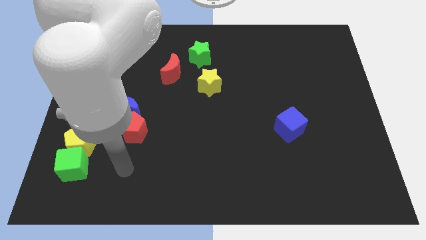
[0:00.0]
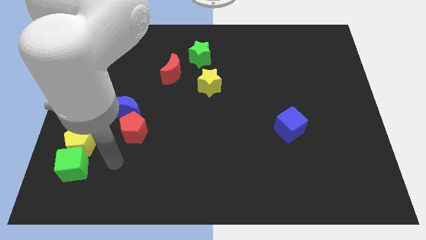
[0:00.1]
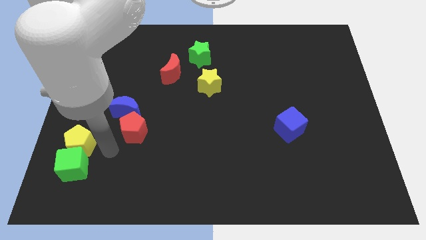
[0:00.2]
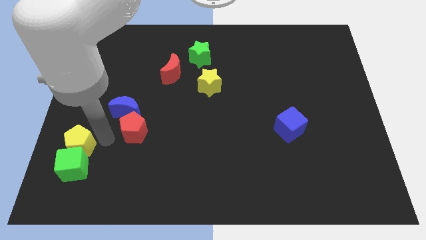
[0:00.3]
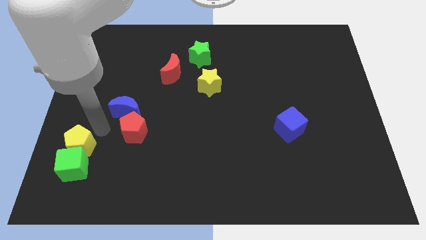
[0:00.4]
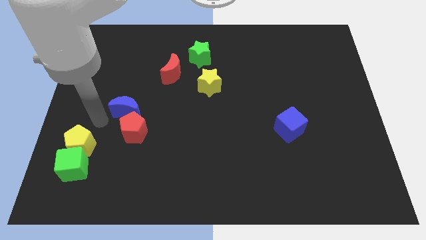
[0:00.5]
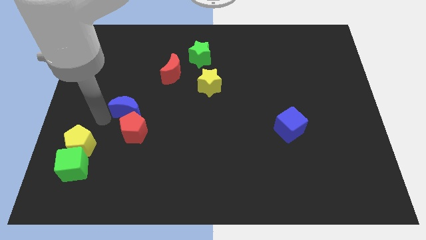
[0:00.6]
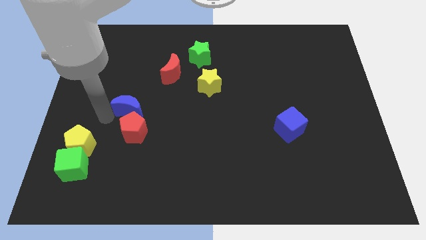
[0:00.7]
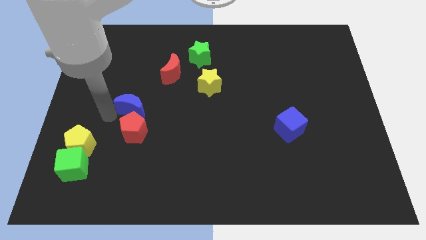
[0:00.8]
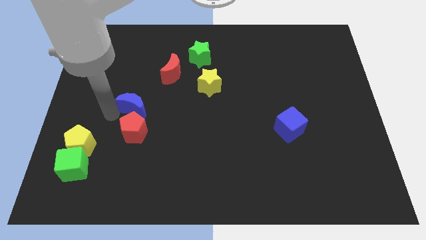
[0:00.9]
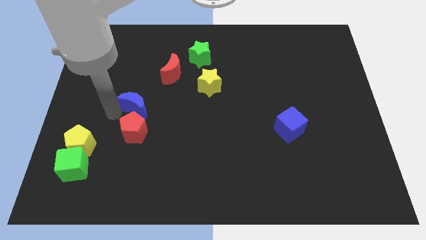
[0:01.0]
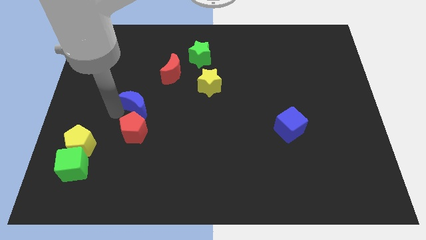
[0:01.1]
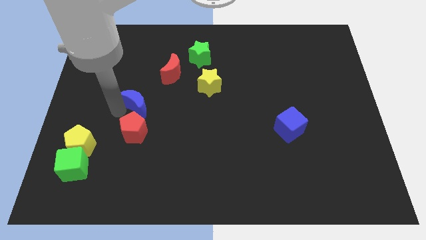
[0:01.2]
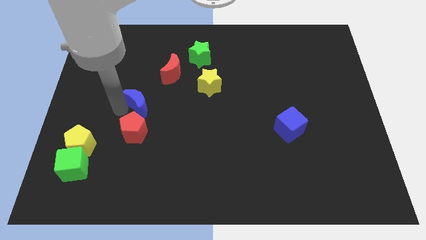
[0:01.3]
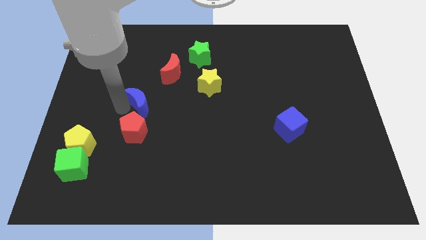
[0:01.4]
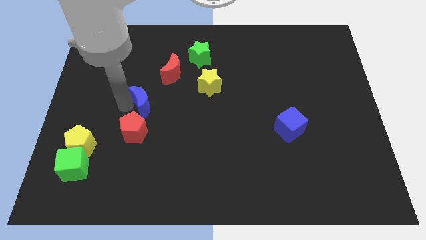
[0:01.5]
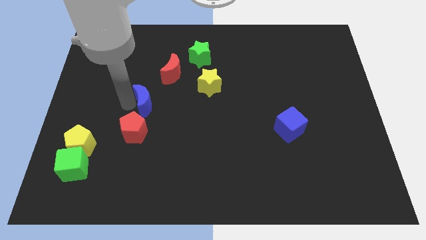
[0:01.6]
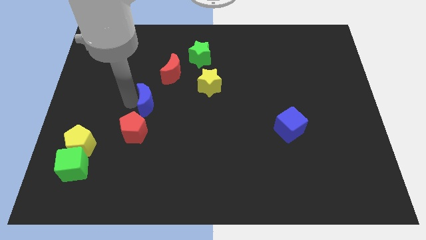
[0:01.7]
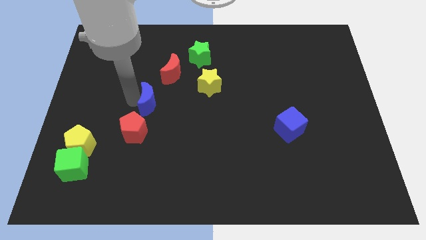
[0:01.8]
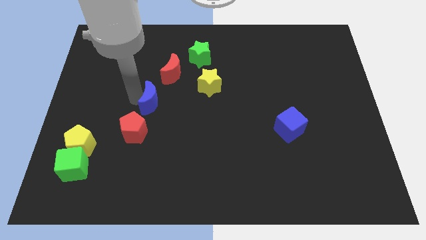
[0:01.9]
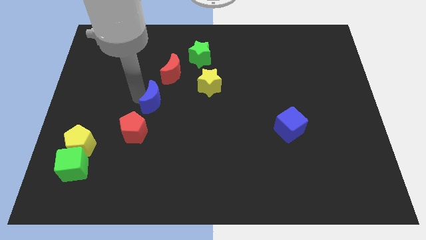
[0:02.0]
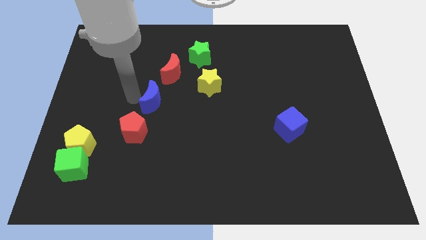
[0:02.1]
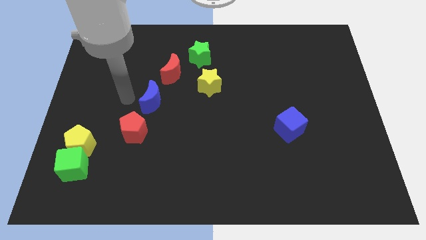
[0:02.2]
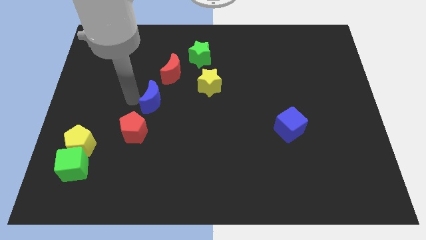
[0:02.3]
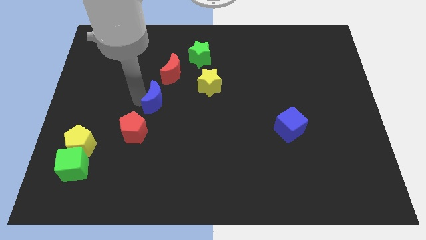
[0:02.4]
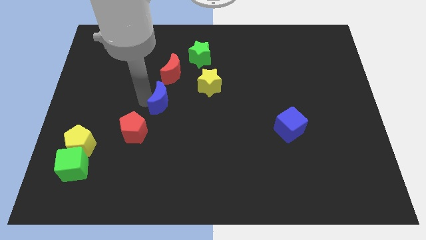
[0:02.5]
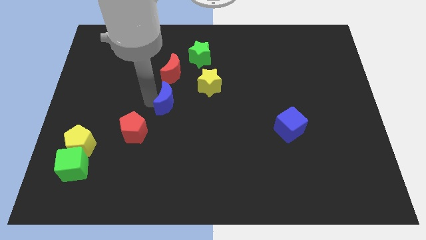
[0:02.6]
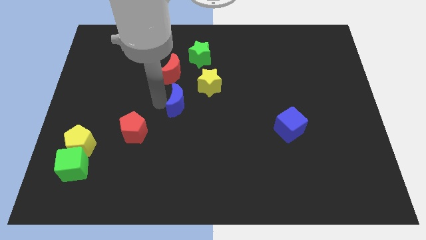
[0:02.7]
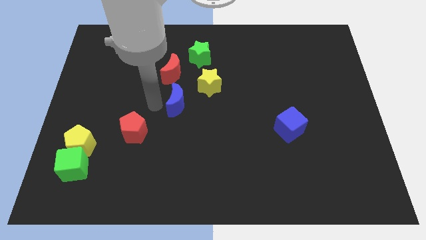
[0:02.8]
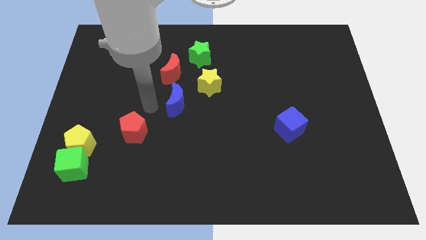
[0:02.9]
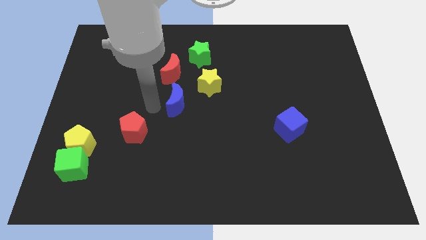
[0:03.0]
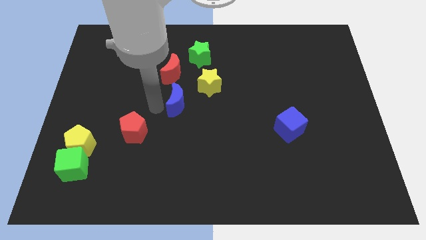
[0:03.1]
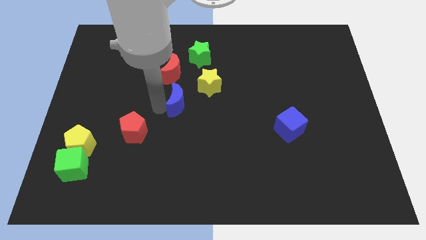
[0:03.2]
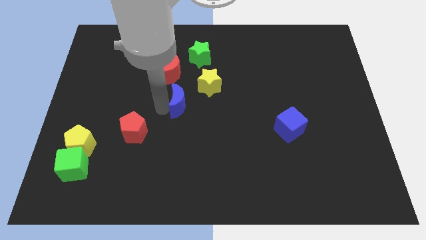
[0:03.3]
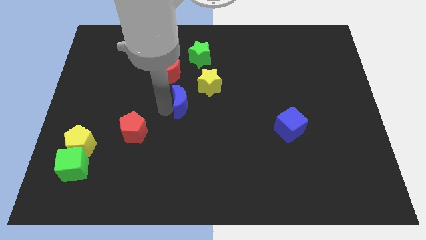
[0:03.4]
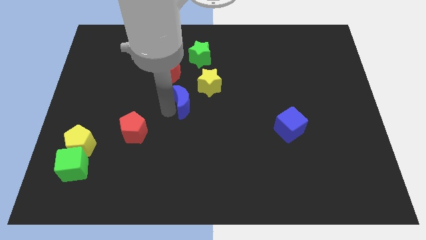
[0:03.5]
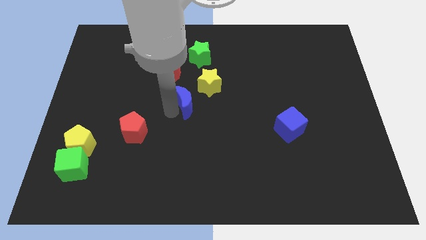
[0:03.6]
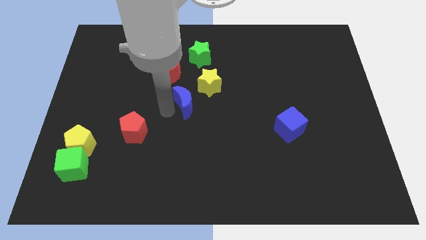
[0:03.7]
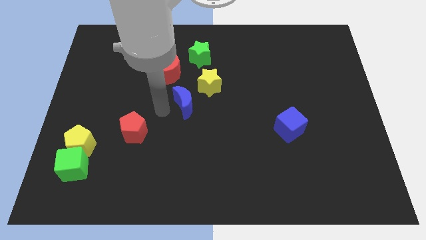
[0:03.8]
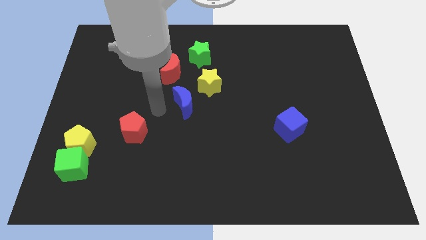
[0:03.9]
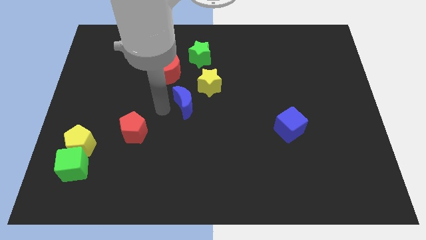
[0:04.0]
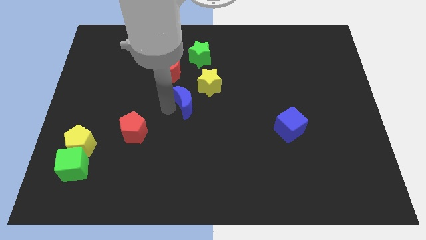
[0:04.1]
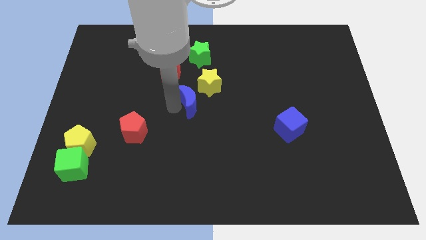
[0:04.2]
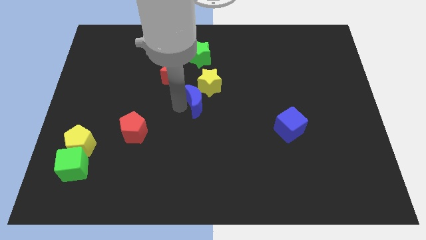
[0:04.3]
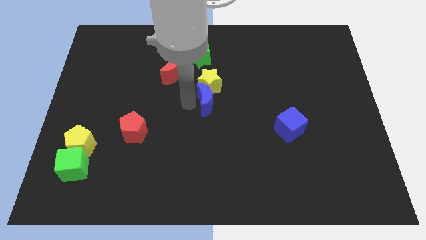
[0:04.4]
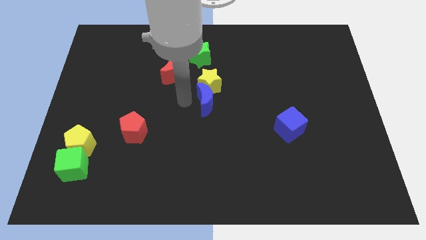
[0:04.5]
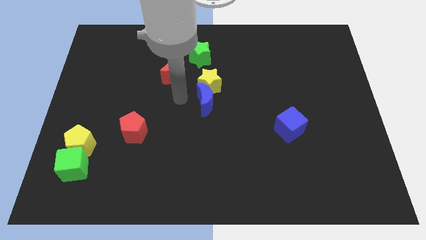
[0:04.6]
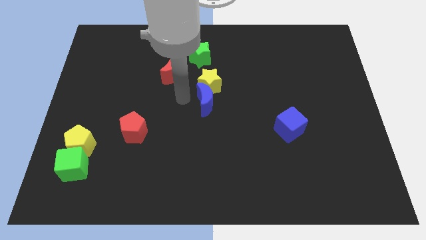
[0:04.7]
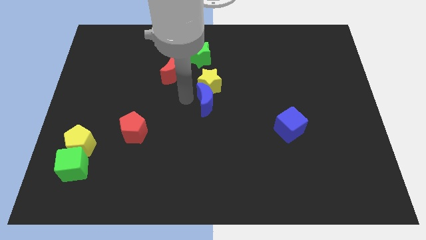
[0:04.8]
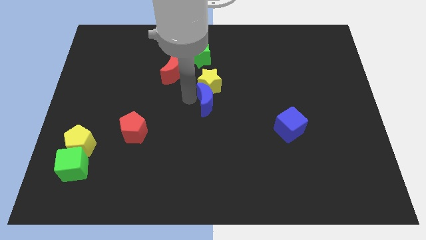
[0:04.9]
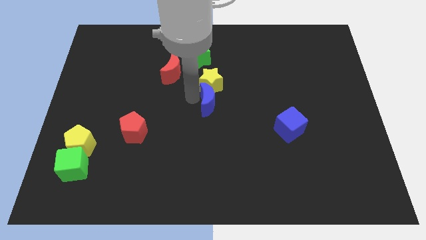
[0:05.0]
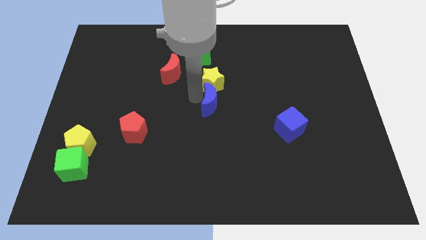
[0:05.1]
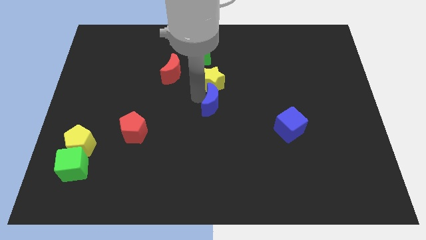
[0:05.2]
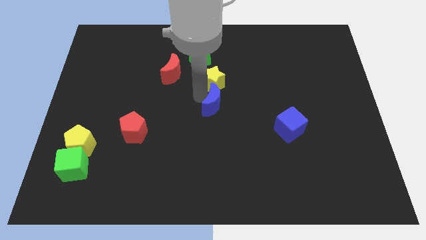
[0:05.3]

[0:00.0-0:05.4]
move the blue moon right

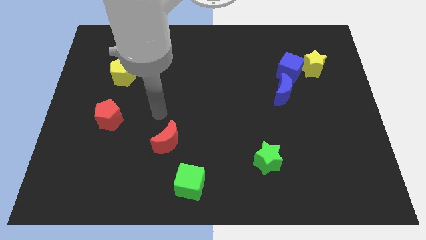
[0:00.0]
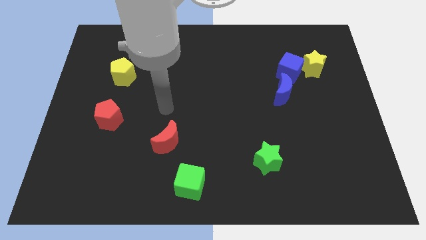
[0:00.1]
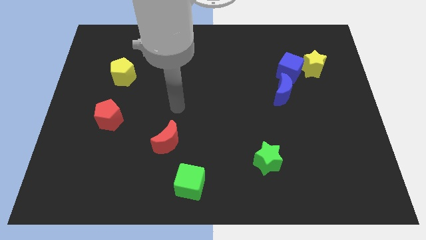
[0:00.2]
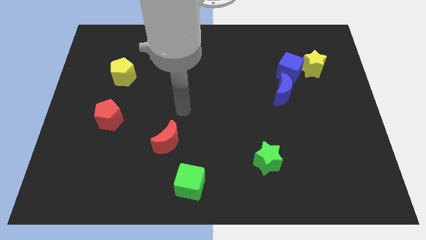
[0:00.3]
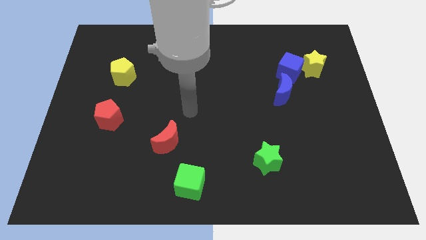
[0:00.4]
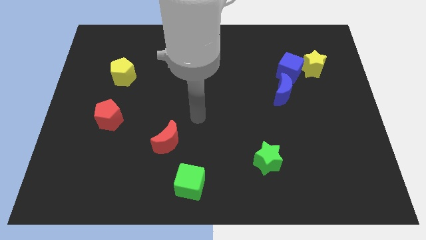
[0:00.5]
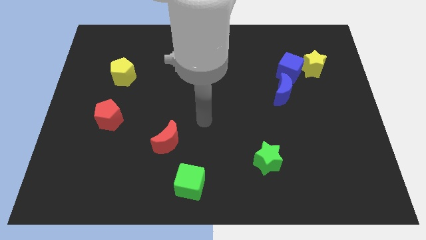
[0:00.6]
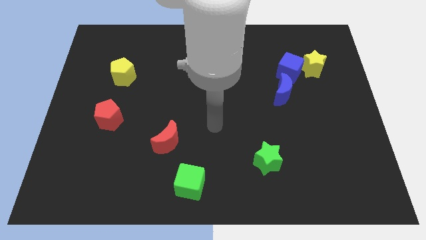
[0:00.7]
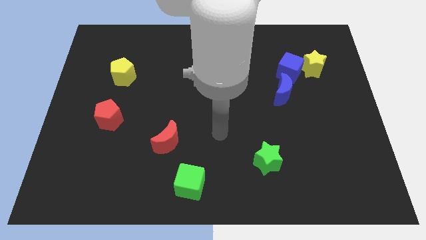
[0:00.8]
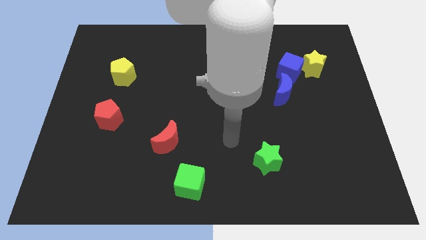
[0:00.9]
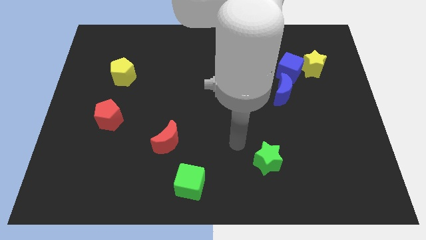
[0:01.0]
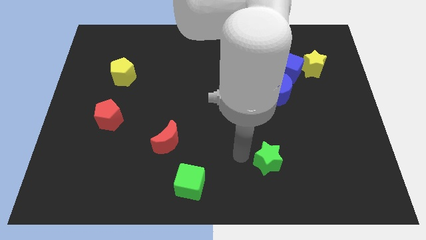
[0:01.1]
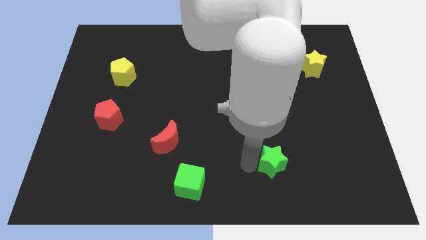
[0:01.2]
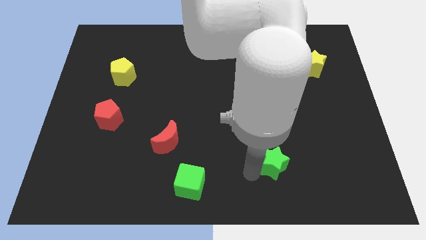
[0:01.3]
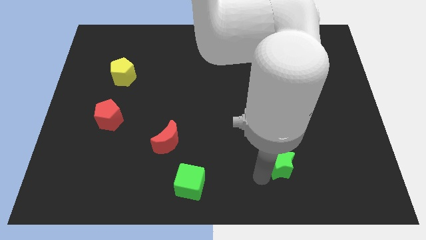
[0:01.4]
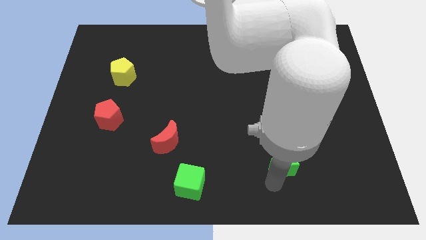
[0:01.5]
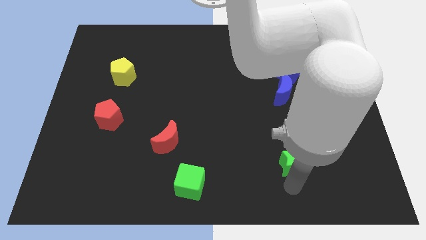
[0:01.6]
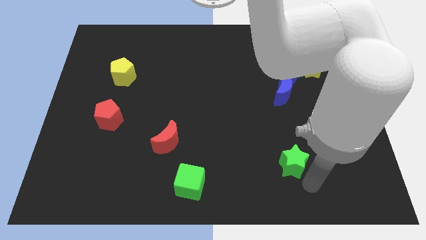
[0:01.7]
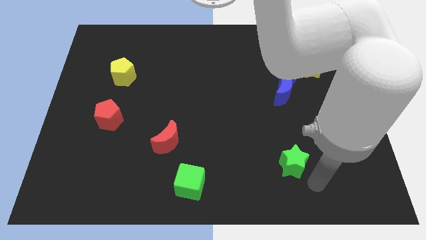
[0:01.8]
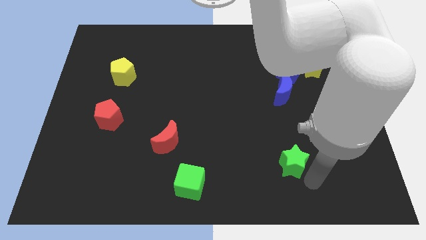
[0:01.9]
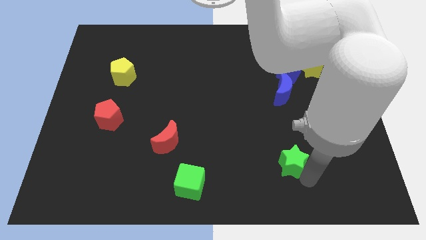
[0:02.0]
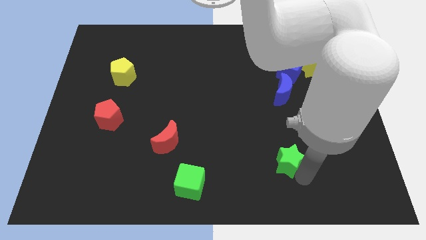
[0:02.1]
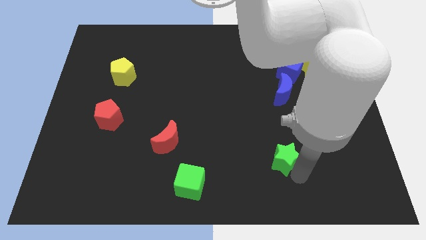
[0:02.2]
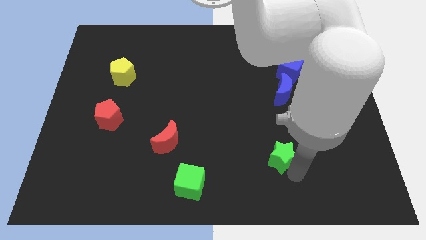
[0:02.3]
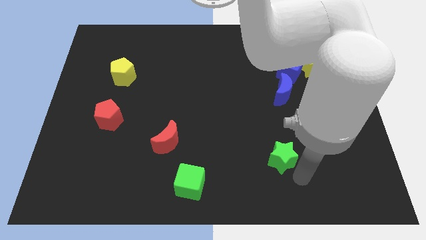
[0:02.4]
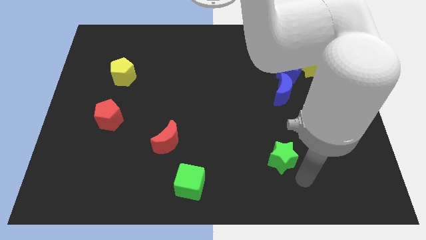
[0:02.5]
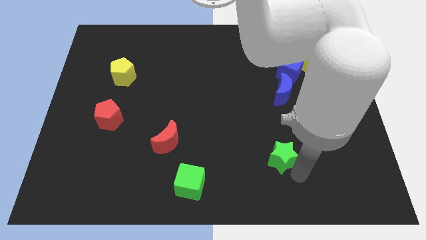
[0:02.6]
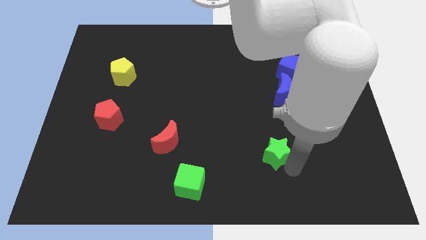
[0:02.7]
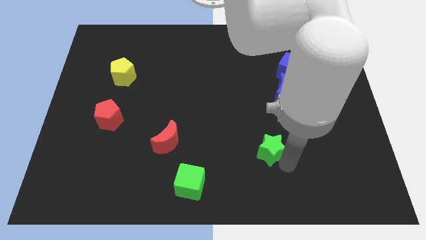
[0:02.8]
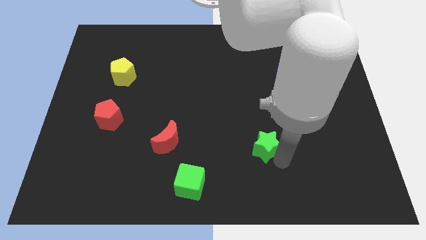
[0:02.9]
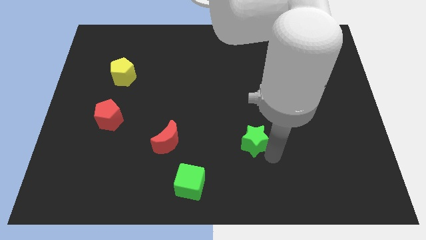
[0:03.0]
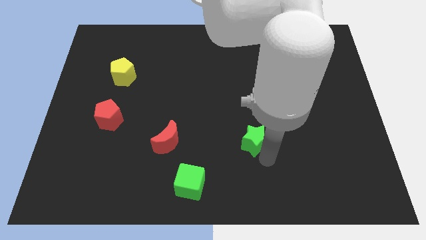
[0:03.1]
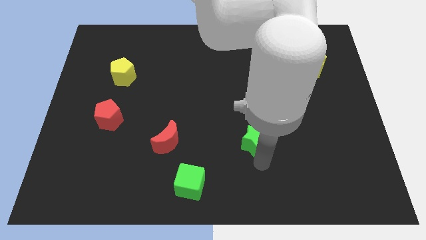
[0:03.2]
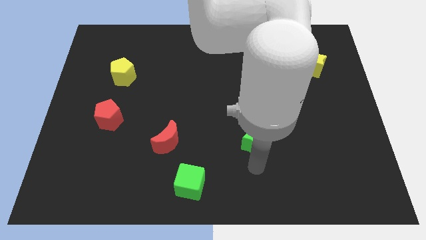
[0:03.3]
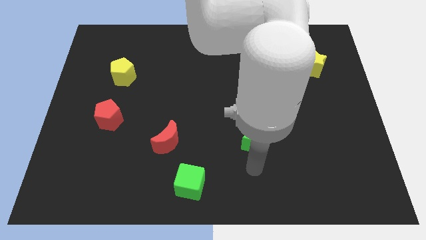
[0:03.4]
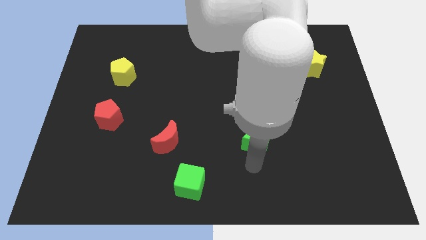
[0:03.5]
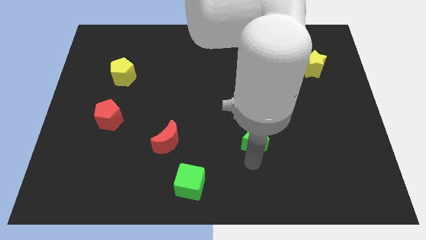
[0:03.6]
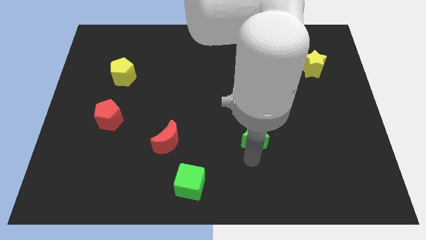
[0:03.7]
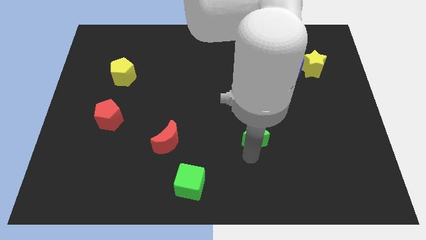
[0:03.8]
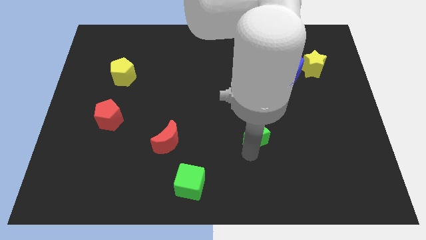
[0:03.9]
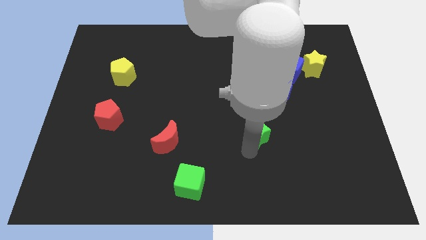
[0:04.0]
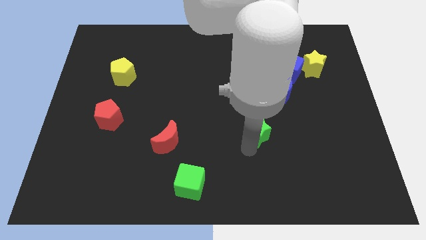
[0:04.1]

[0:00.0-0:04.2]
slide the green star a little upwards
